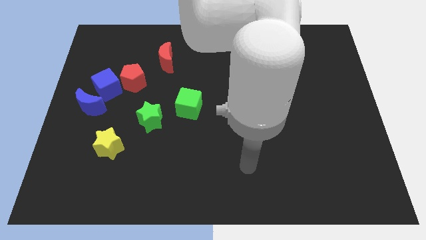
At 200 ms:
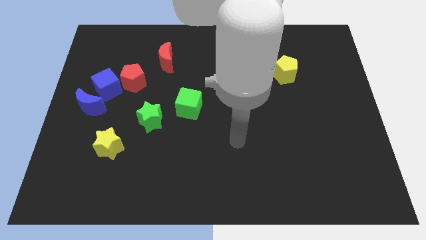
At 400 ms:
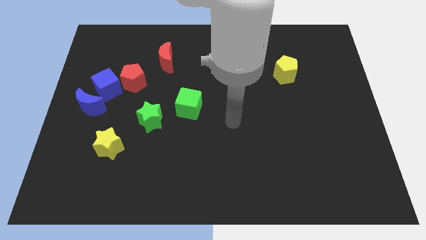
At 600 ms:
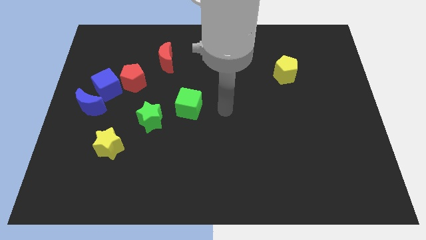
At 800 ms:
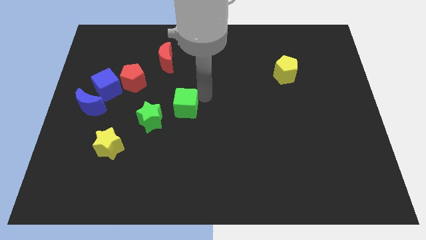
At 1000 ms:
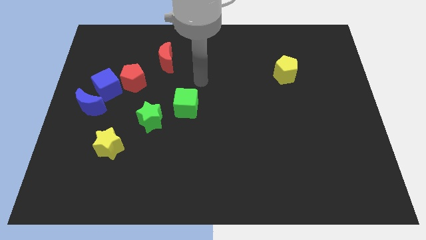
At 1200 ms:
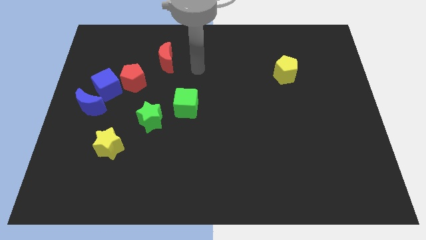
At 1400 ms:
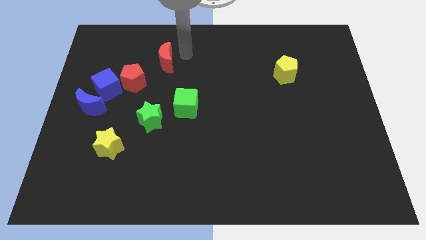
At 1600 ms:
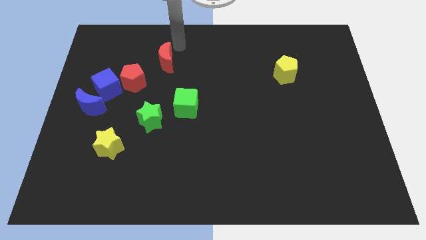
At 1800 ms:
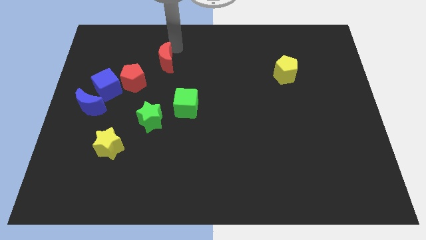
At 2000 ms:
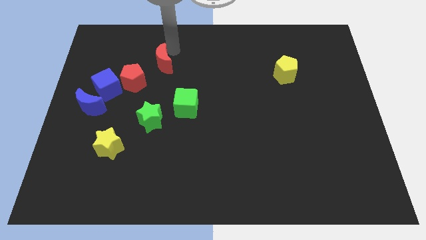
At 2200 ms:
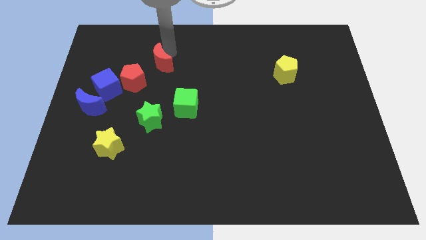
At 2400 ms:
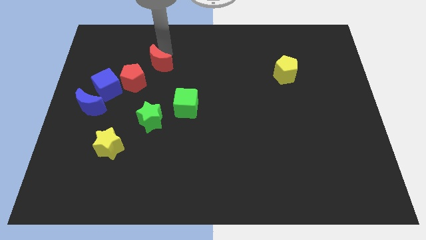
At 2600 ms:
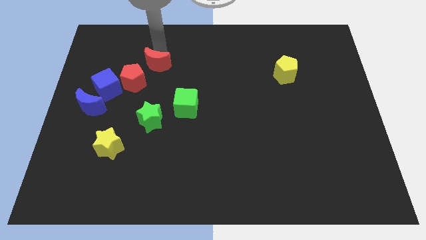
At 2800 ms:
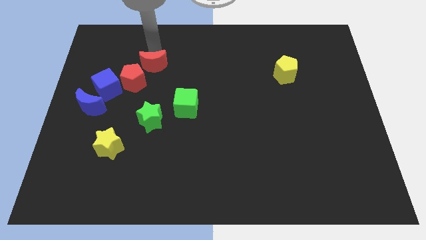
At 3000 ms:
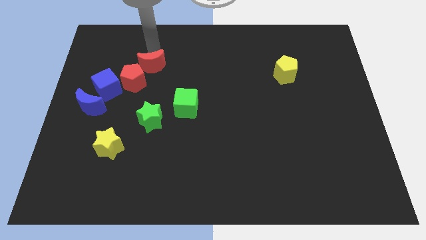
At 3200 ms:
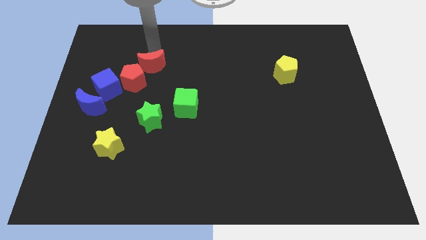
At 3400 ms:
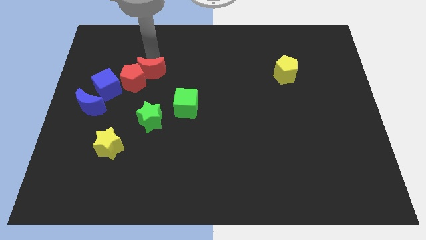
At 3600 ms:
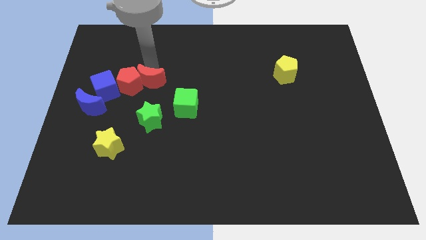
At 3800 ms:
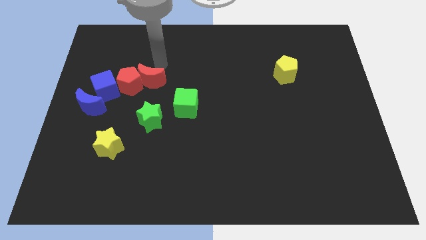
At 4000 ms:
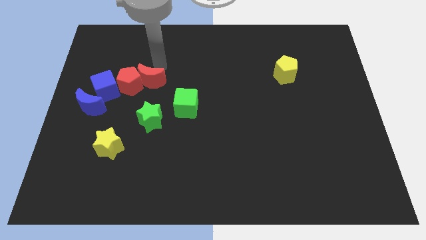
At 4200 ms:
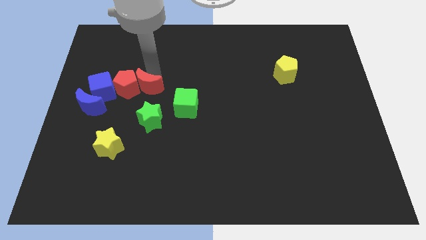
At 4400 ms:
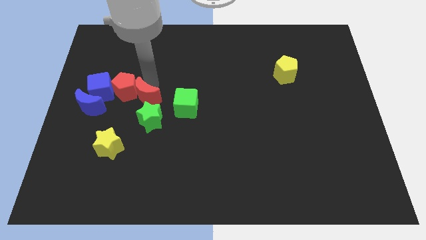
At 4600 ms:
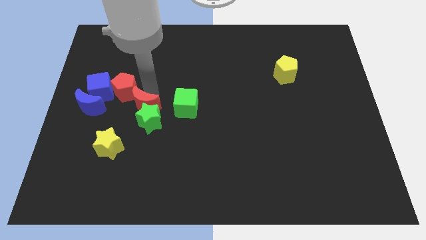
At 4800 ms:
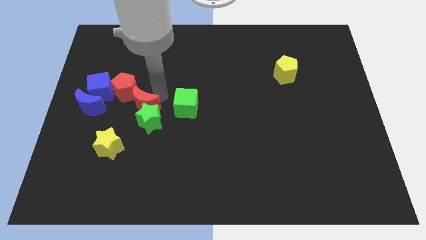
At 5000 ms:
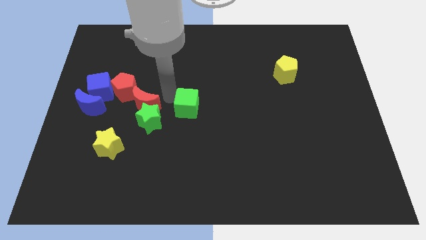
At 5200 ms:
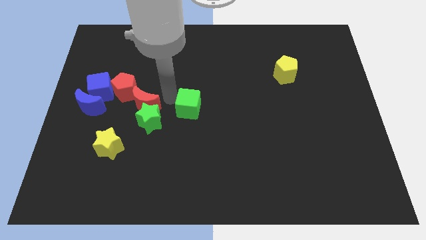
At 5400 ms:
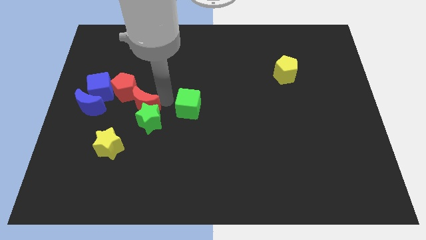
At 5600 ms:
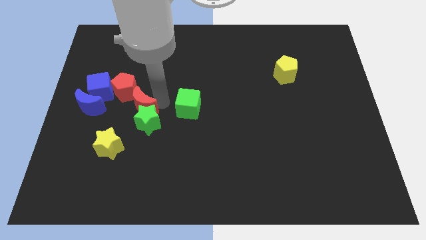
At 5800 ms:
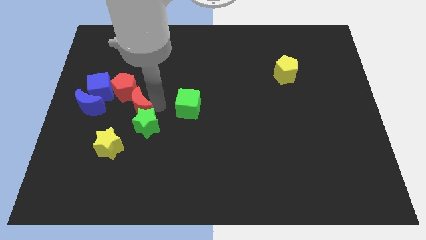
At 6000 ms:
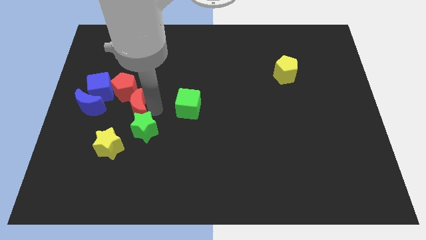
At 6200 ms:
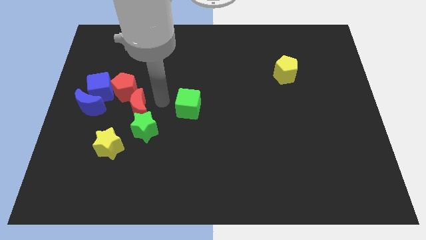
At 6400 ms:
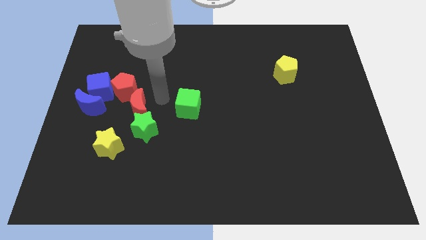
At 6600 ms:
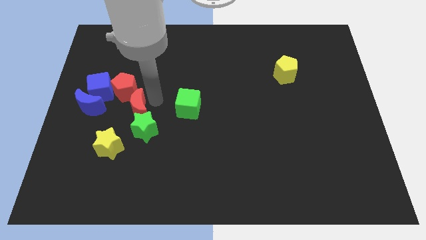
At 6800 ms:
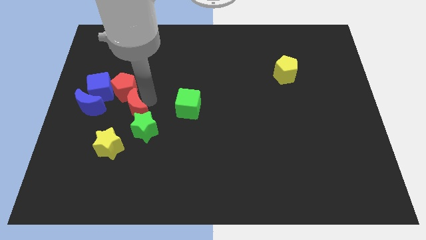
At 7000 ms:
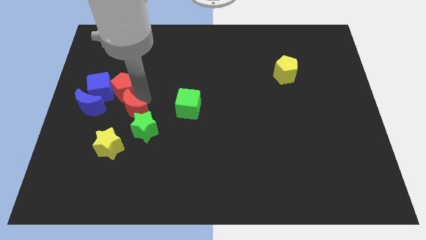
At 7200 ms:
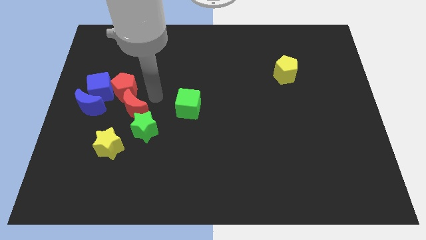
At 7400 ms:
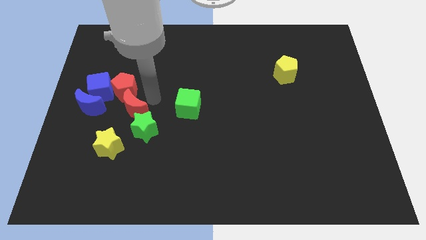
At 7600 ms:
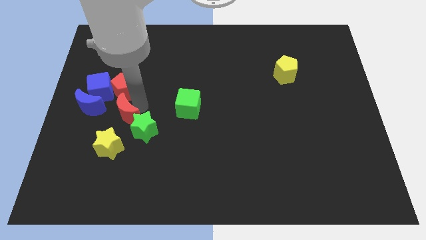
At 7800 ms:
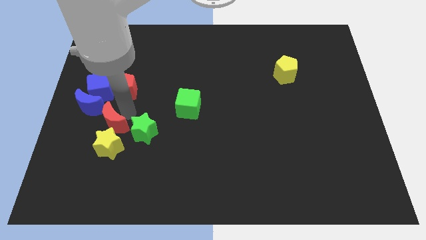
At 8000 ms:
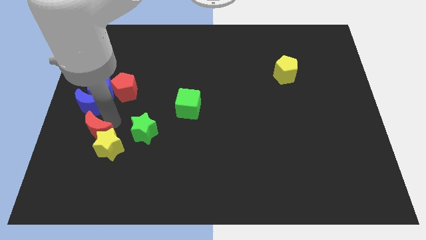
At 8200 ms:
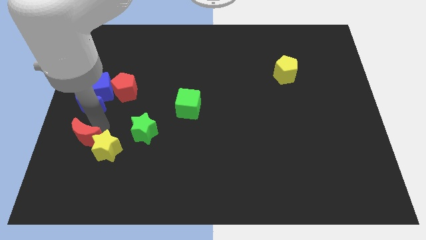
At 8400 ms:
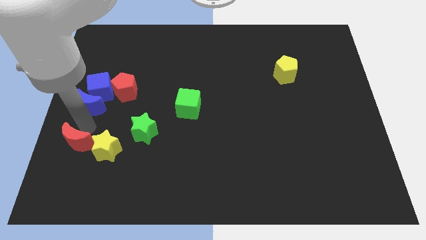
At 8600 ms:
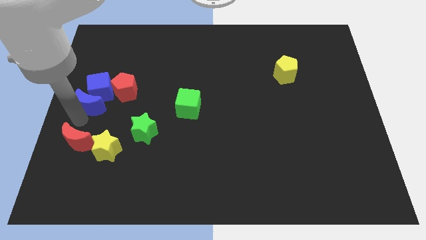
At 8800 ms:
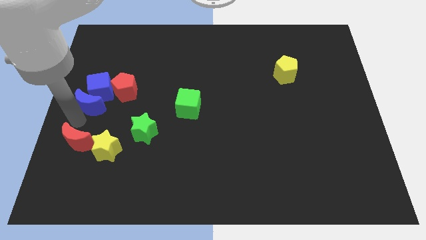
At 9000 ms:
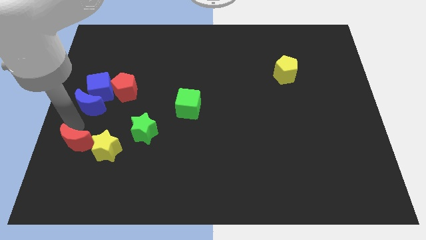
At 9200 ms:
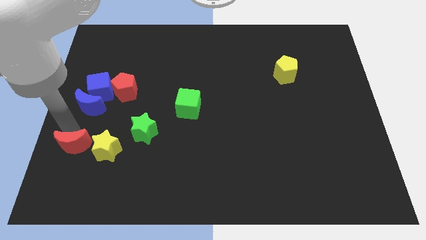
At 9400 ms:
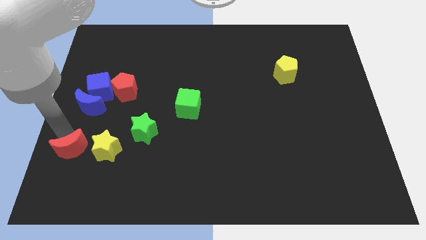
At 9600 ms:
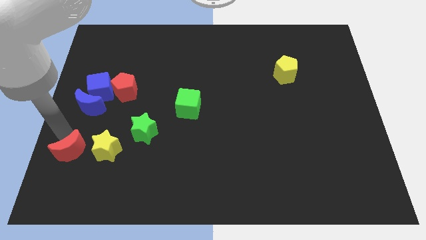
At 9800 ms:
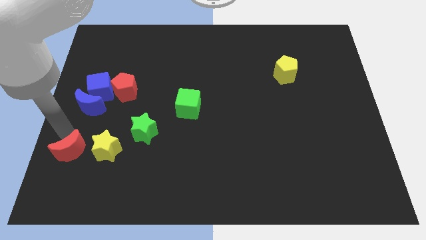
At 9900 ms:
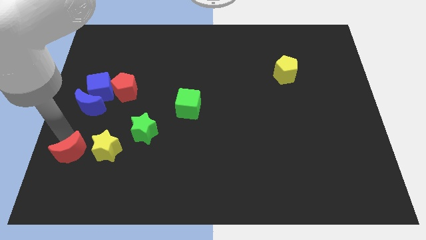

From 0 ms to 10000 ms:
push the red moon to the bottom left of the yellow star

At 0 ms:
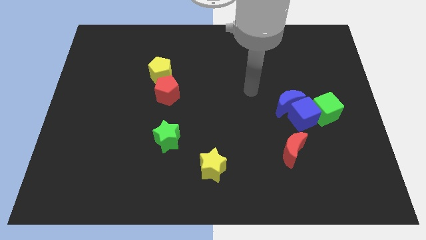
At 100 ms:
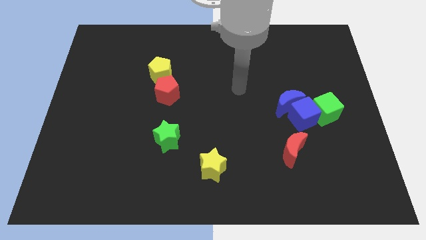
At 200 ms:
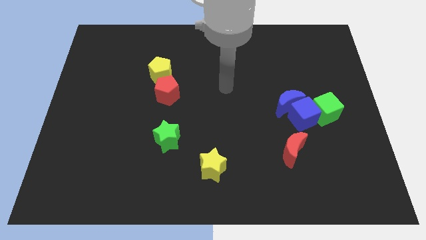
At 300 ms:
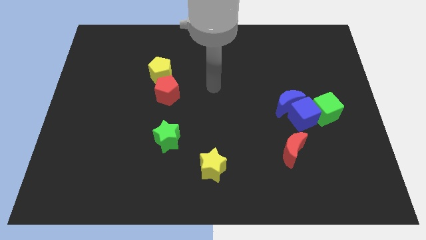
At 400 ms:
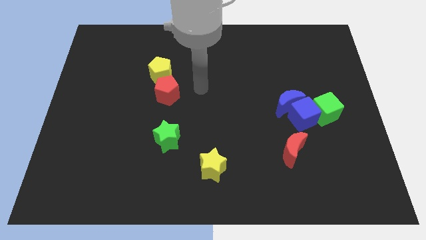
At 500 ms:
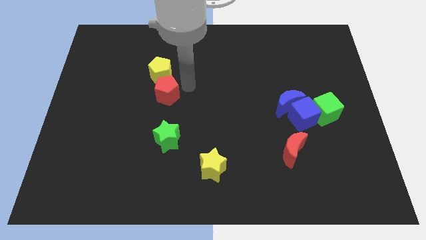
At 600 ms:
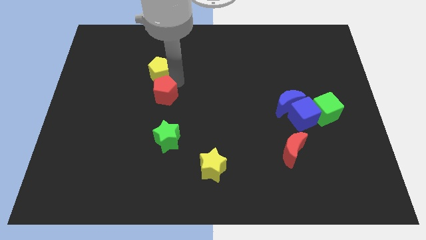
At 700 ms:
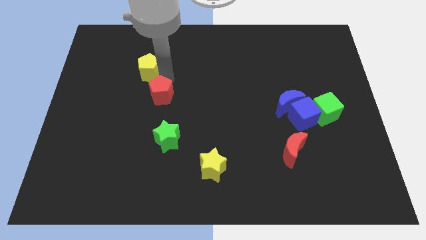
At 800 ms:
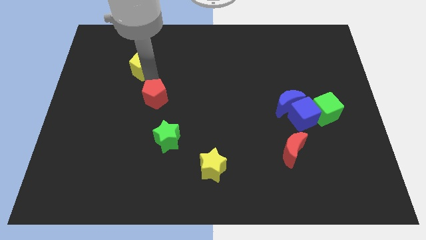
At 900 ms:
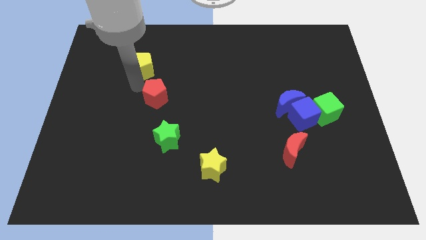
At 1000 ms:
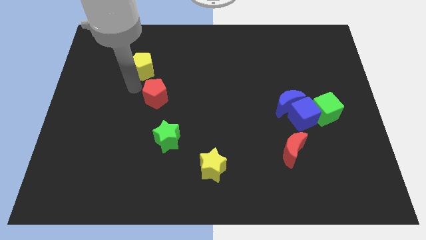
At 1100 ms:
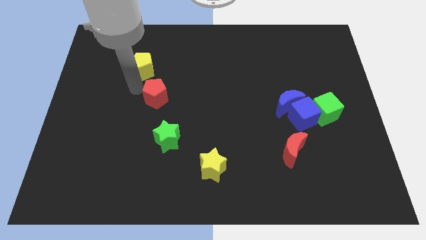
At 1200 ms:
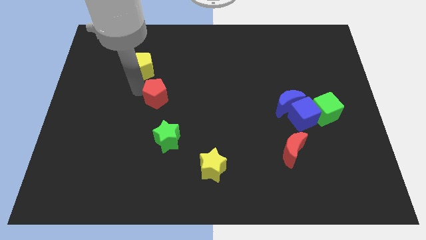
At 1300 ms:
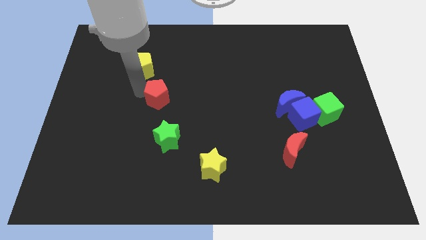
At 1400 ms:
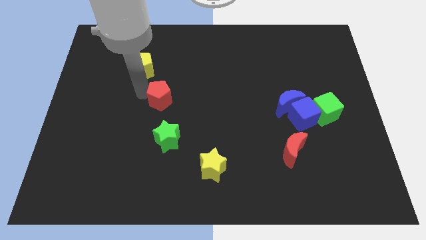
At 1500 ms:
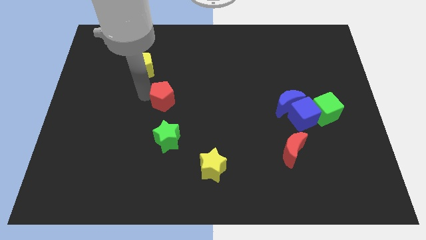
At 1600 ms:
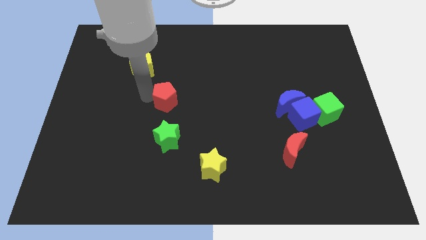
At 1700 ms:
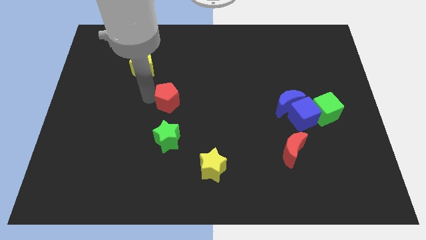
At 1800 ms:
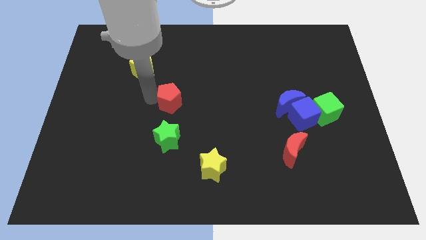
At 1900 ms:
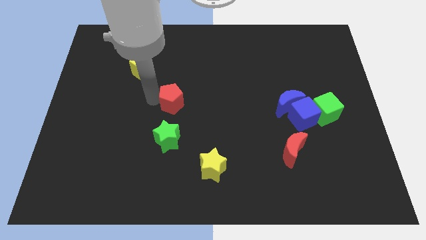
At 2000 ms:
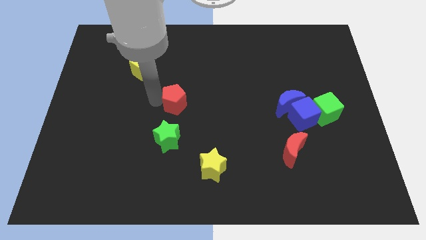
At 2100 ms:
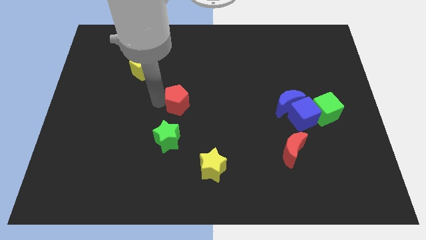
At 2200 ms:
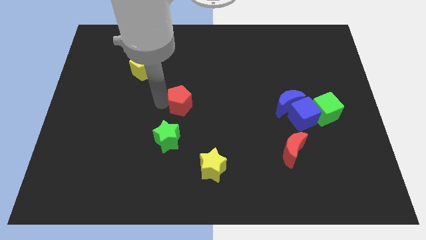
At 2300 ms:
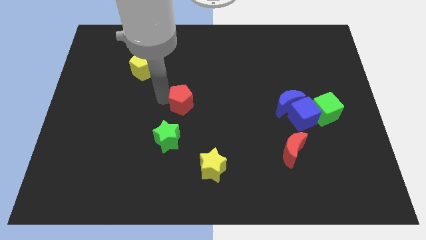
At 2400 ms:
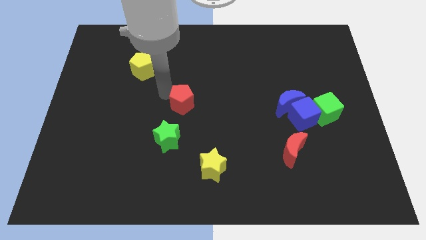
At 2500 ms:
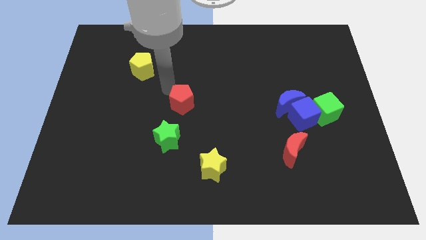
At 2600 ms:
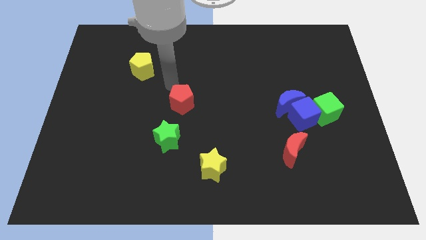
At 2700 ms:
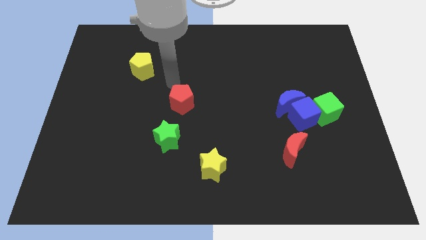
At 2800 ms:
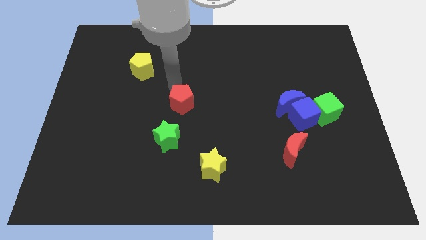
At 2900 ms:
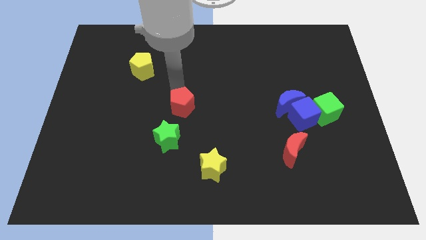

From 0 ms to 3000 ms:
put the red pentagon to the top right of the green star
